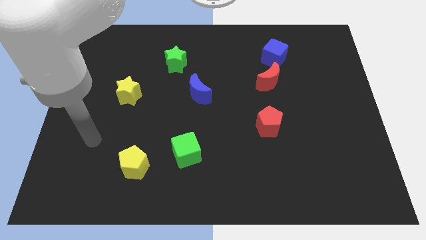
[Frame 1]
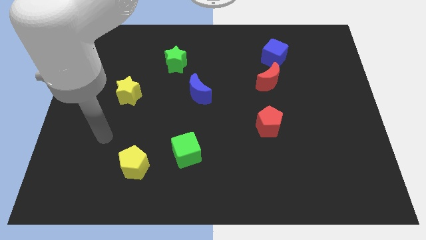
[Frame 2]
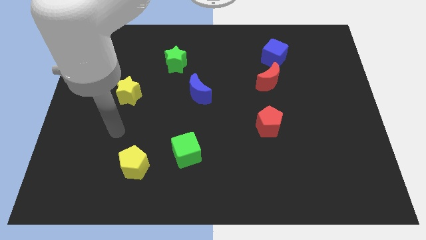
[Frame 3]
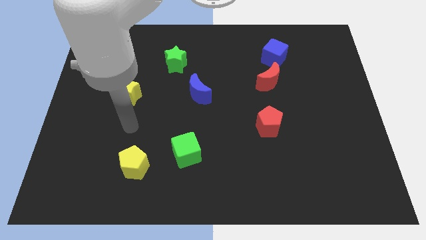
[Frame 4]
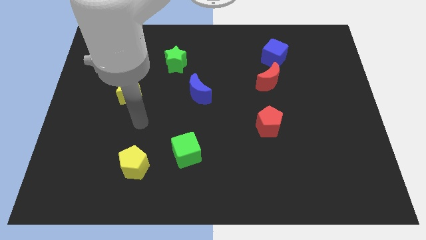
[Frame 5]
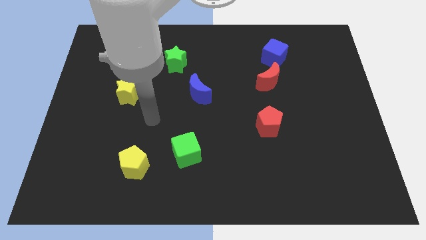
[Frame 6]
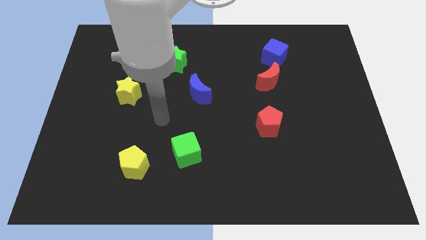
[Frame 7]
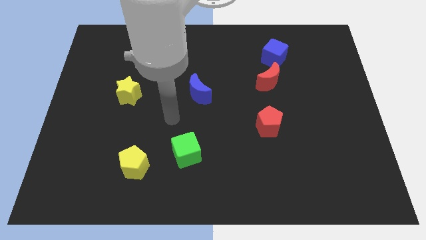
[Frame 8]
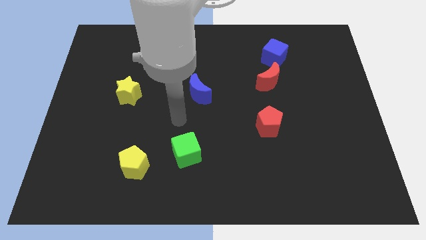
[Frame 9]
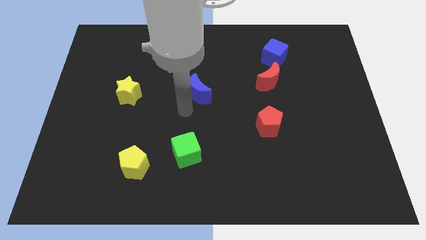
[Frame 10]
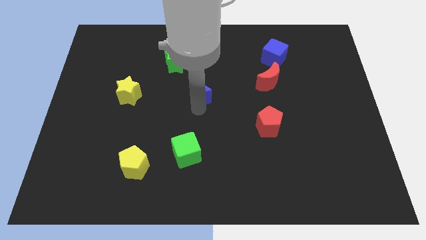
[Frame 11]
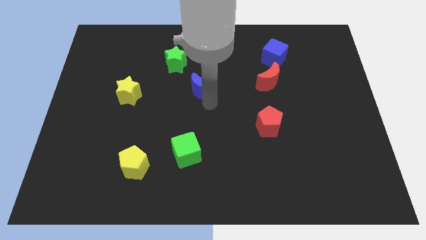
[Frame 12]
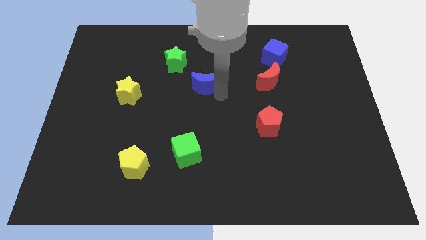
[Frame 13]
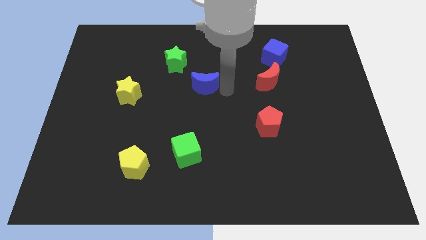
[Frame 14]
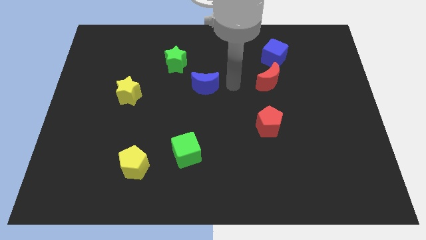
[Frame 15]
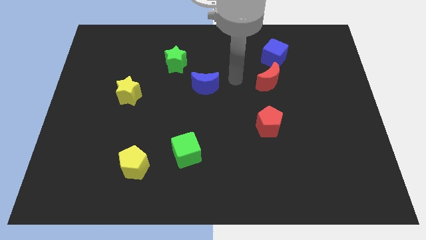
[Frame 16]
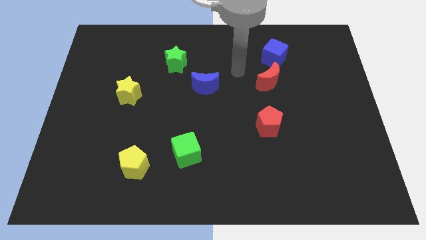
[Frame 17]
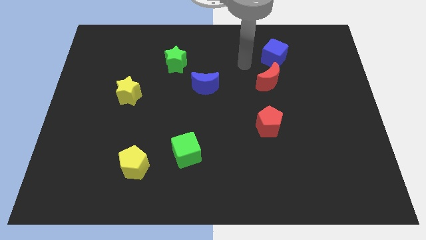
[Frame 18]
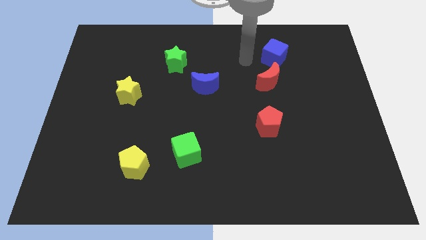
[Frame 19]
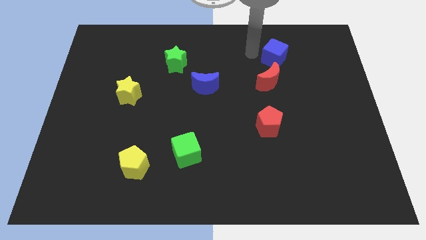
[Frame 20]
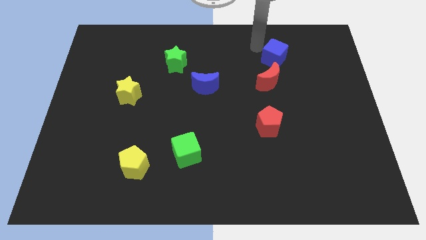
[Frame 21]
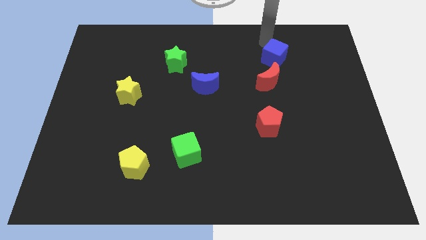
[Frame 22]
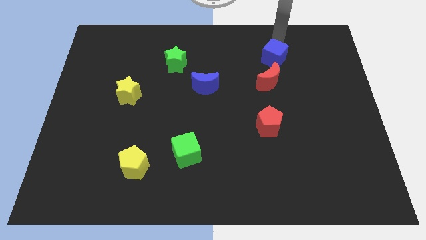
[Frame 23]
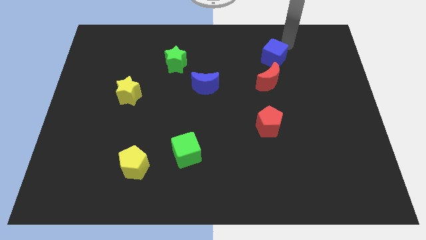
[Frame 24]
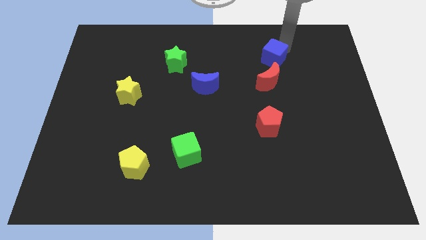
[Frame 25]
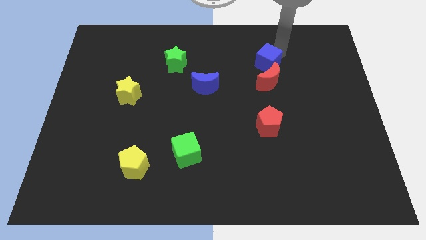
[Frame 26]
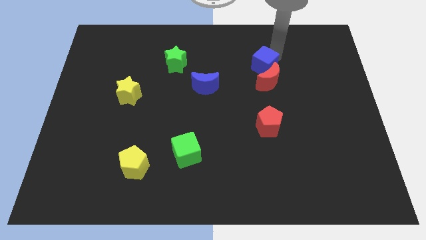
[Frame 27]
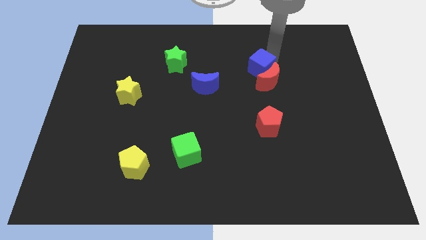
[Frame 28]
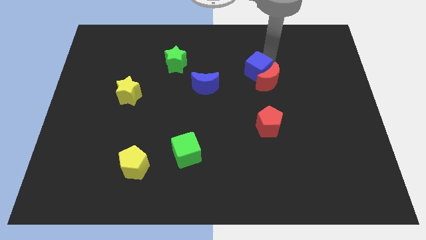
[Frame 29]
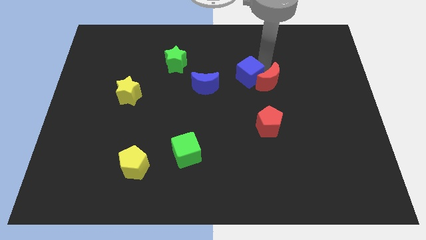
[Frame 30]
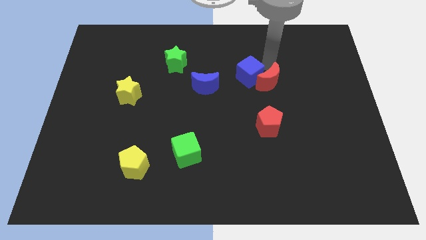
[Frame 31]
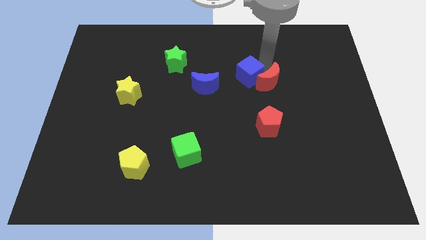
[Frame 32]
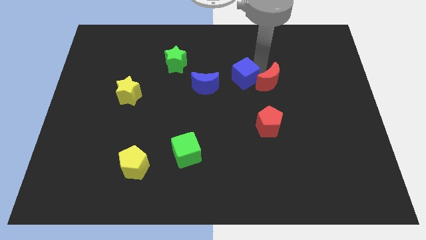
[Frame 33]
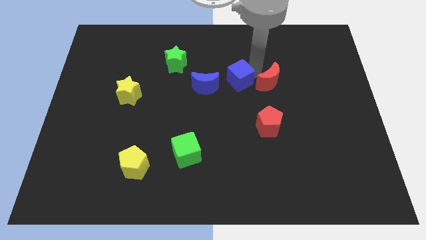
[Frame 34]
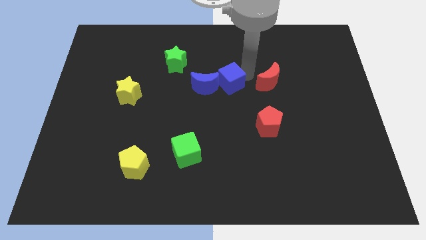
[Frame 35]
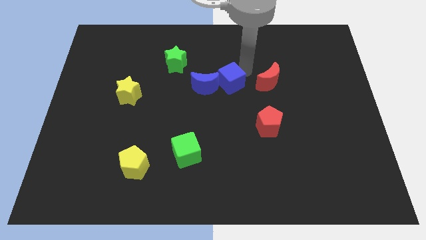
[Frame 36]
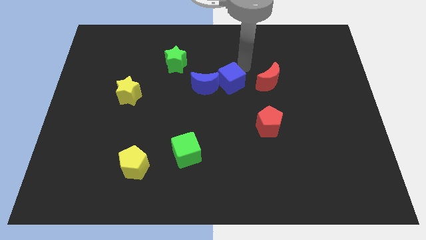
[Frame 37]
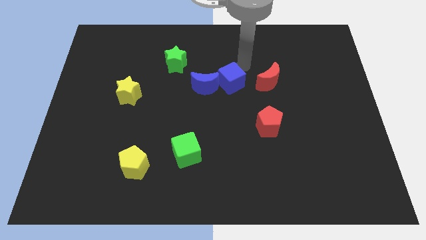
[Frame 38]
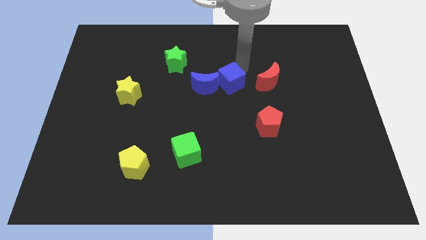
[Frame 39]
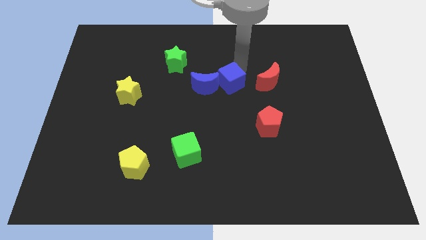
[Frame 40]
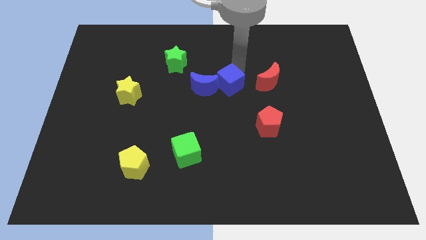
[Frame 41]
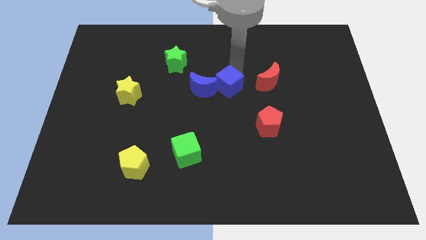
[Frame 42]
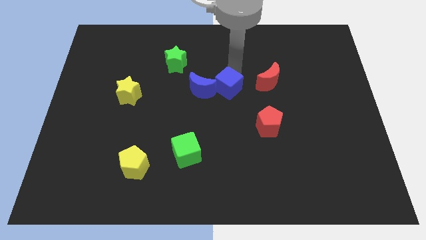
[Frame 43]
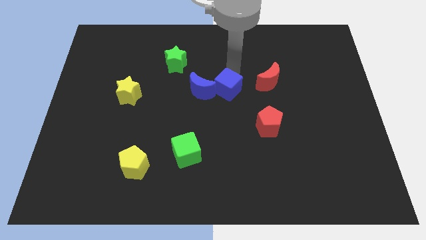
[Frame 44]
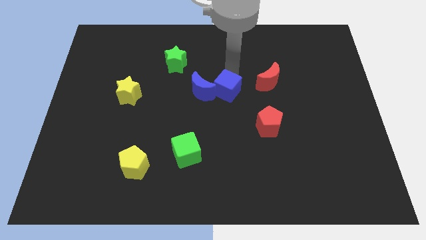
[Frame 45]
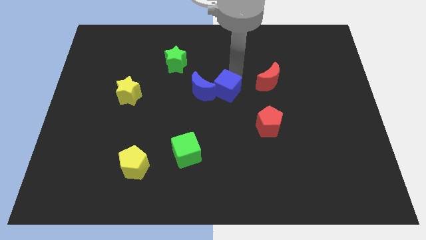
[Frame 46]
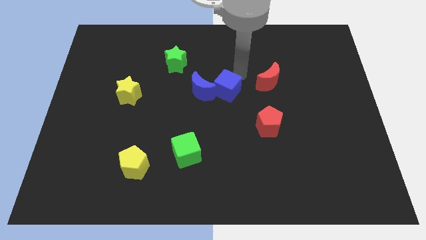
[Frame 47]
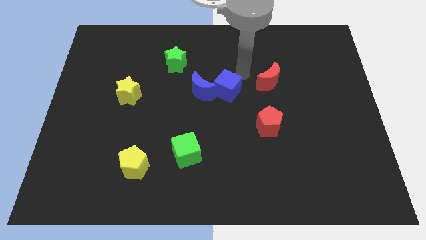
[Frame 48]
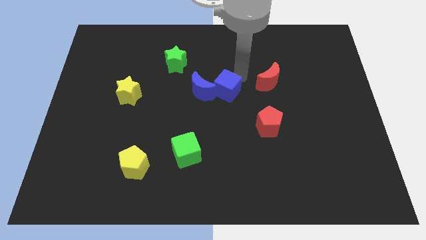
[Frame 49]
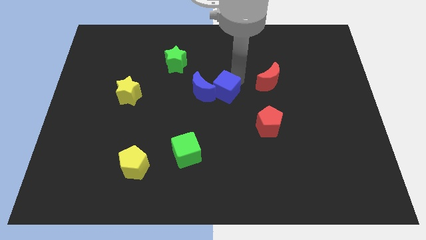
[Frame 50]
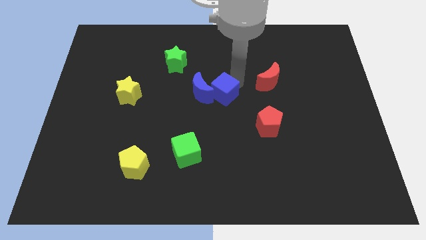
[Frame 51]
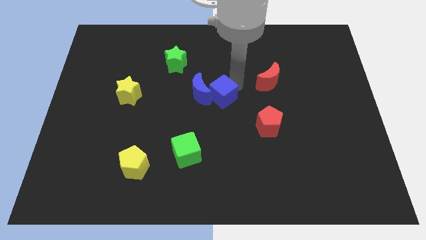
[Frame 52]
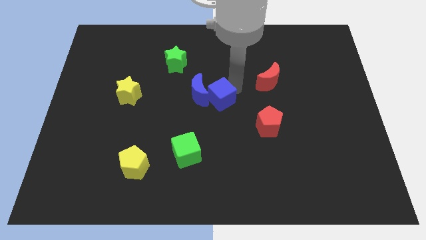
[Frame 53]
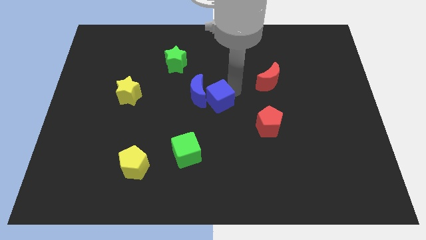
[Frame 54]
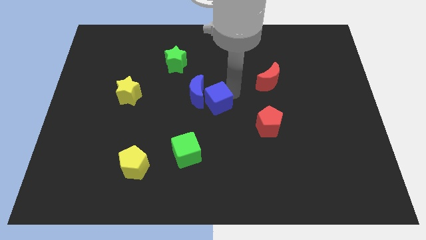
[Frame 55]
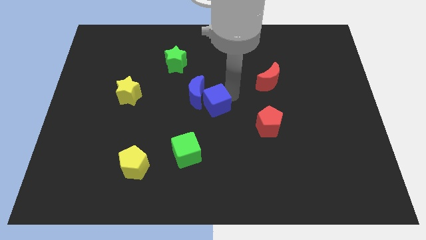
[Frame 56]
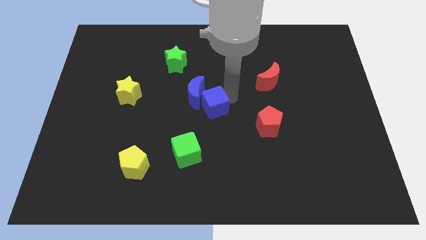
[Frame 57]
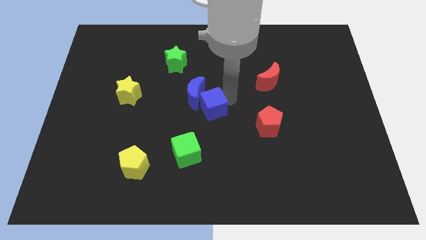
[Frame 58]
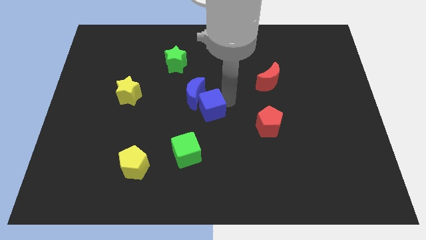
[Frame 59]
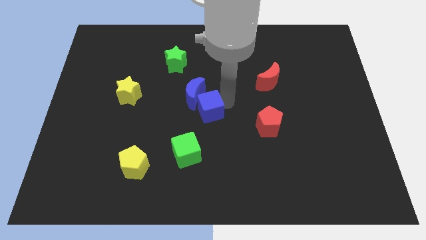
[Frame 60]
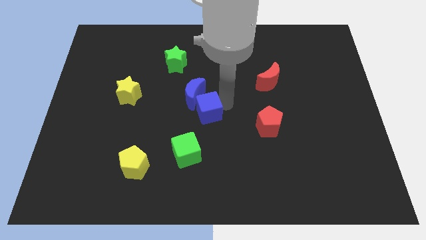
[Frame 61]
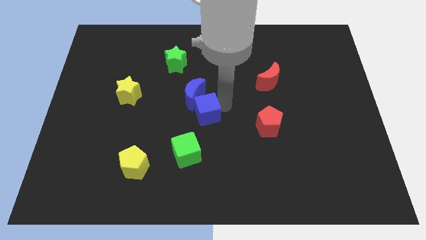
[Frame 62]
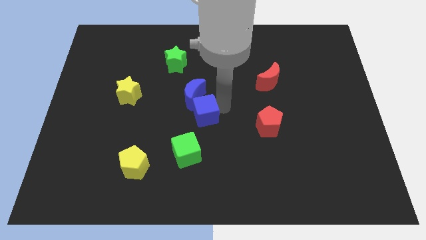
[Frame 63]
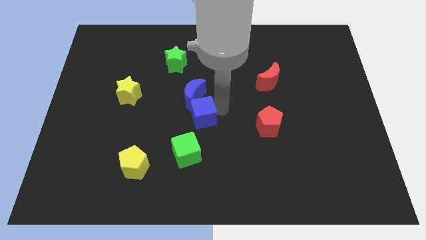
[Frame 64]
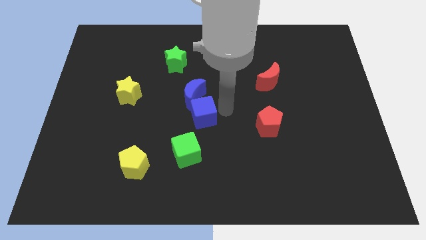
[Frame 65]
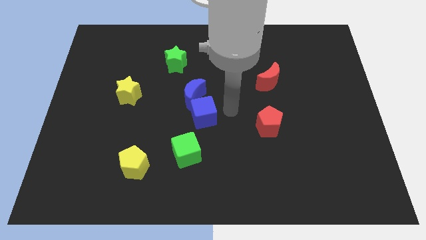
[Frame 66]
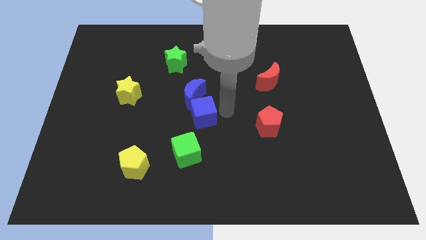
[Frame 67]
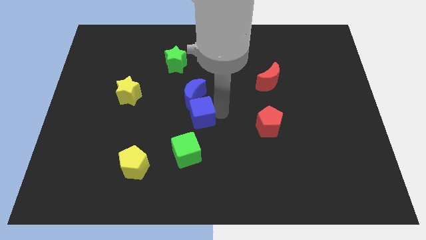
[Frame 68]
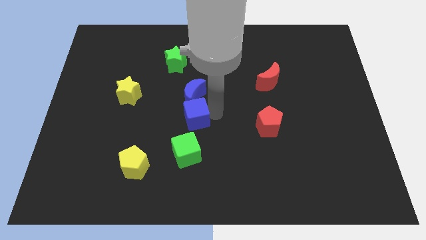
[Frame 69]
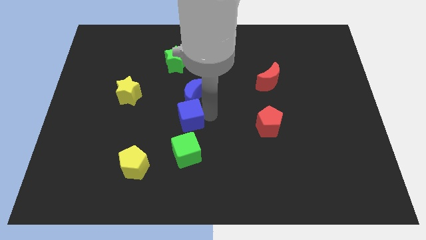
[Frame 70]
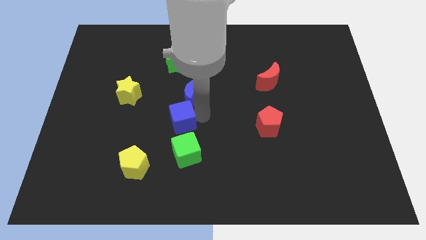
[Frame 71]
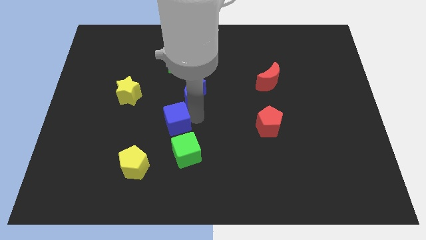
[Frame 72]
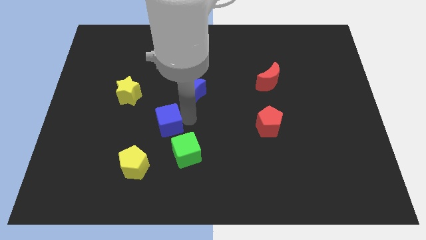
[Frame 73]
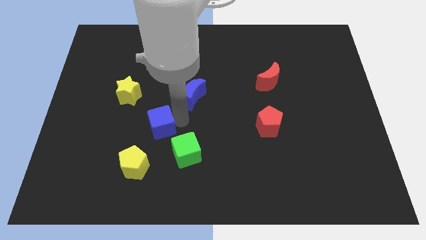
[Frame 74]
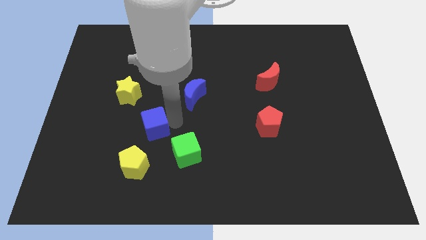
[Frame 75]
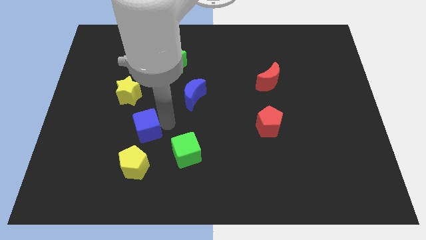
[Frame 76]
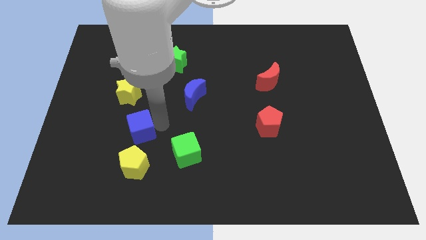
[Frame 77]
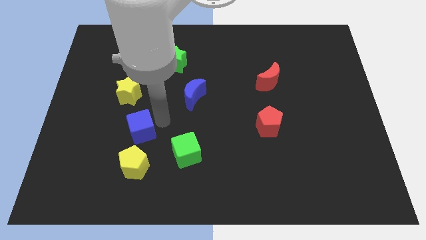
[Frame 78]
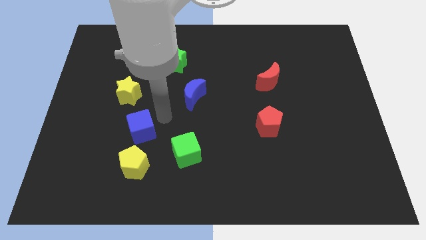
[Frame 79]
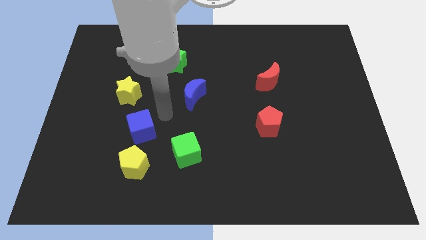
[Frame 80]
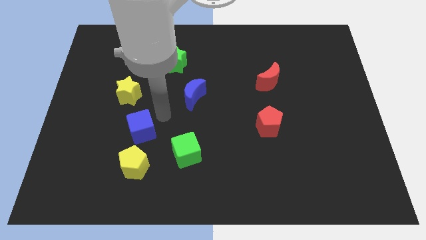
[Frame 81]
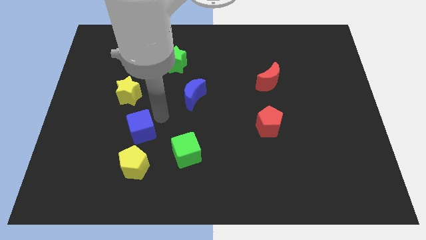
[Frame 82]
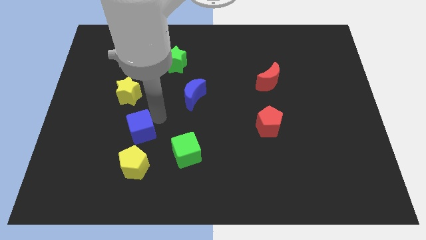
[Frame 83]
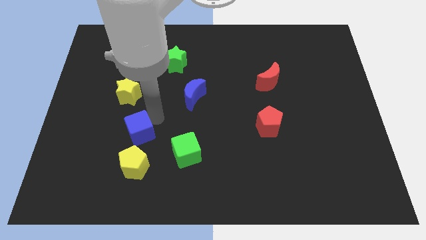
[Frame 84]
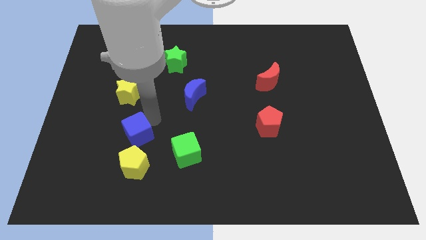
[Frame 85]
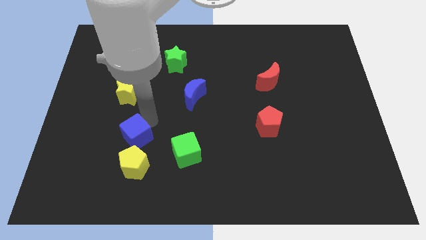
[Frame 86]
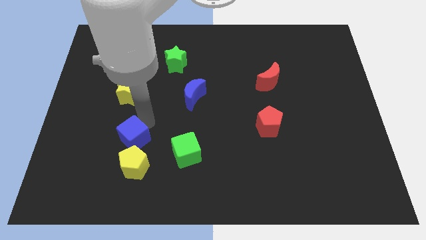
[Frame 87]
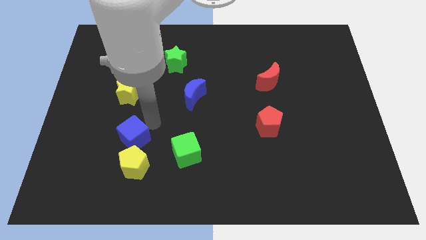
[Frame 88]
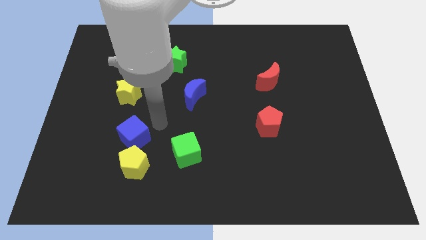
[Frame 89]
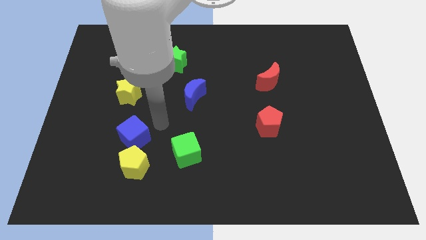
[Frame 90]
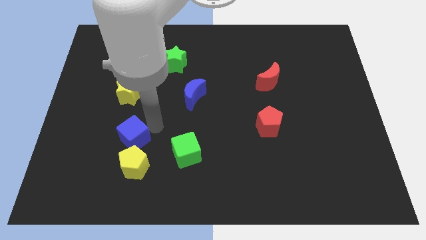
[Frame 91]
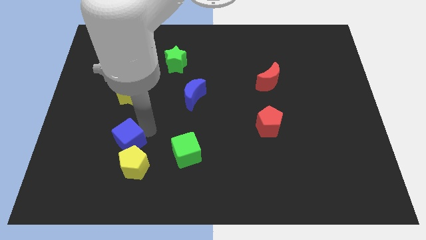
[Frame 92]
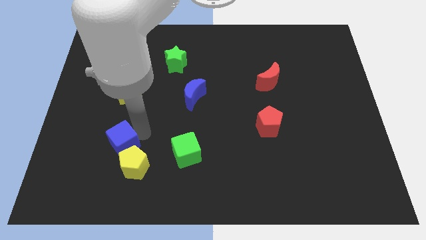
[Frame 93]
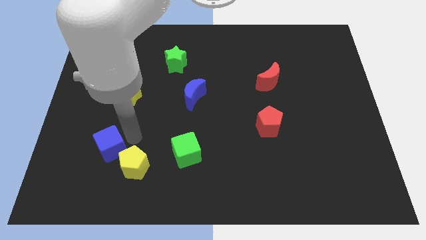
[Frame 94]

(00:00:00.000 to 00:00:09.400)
move the blue cube just left of the yellow pentagon
